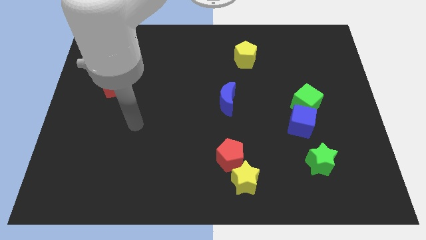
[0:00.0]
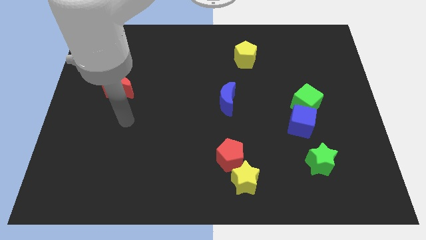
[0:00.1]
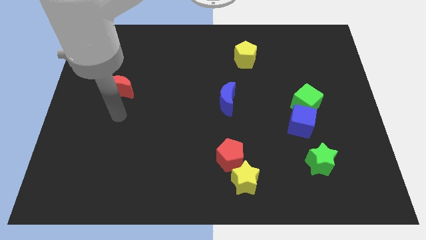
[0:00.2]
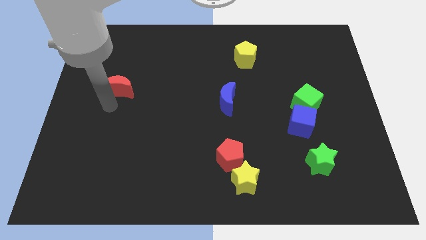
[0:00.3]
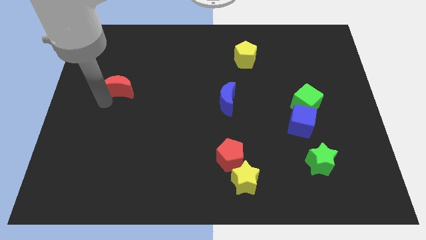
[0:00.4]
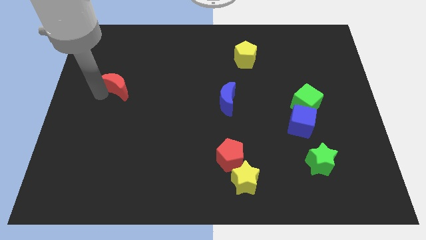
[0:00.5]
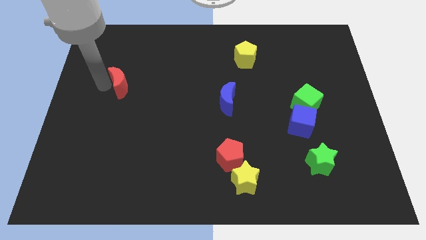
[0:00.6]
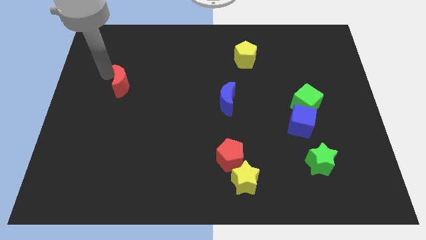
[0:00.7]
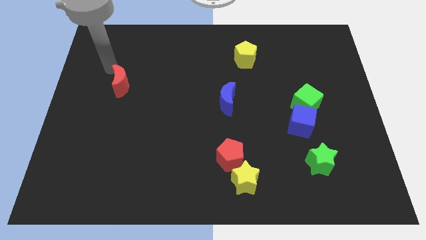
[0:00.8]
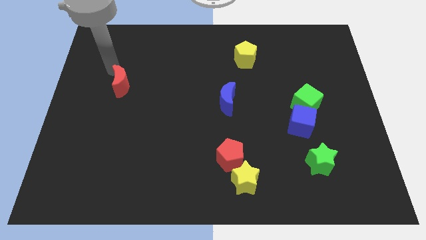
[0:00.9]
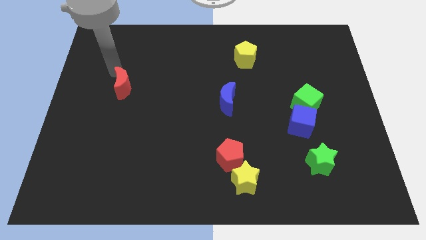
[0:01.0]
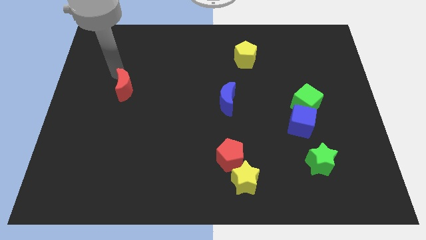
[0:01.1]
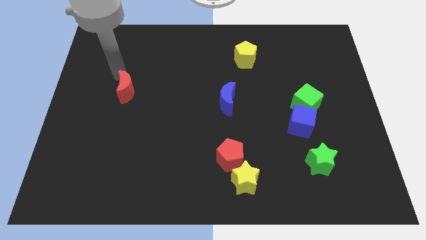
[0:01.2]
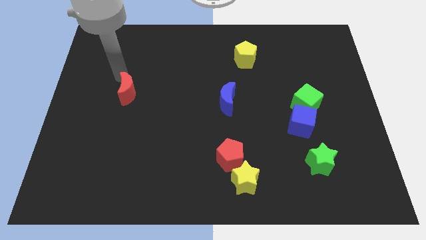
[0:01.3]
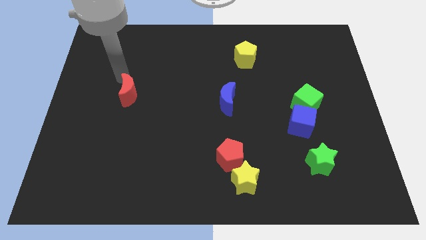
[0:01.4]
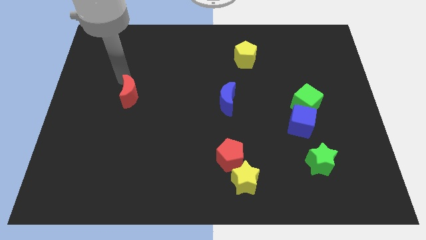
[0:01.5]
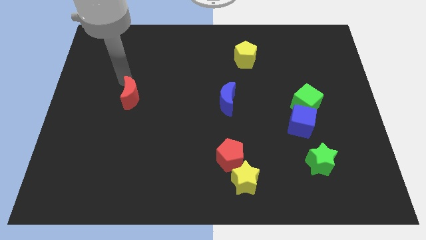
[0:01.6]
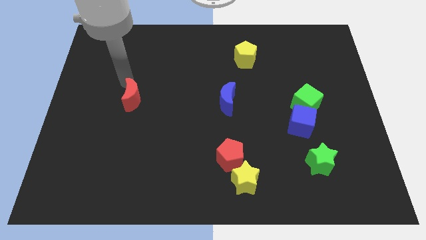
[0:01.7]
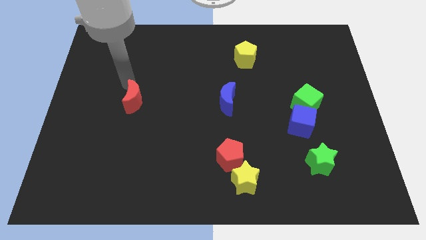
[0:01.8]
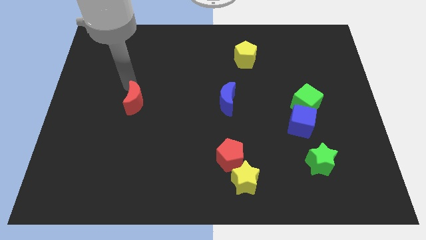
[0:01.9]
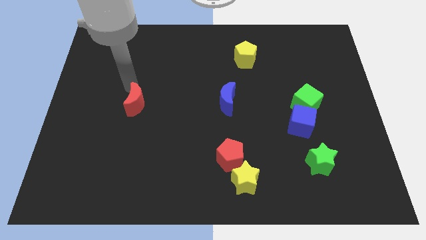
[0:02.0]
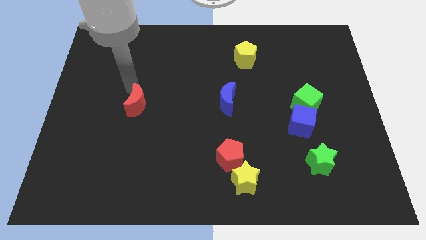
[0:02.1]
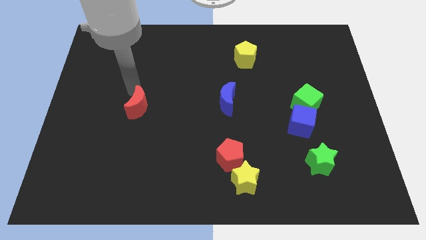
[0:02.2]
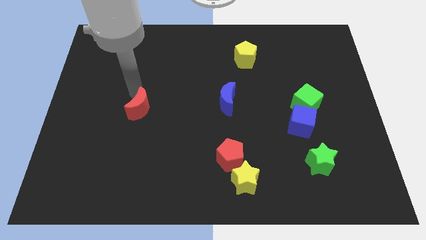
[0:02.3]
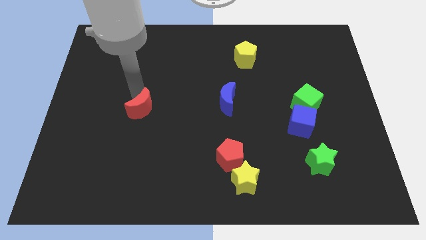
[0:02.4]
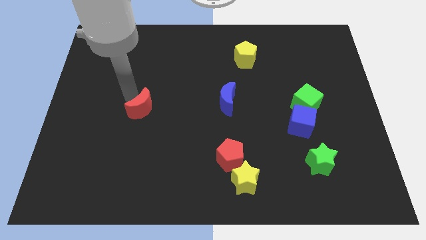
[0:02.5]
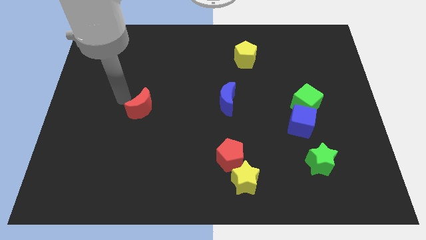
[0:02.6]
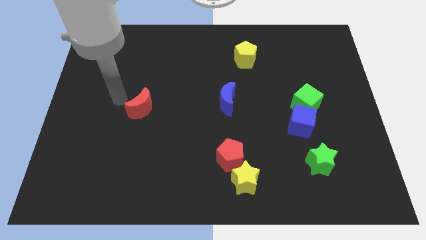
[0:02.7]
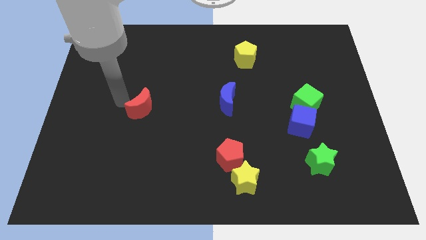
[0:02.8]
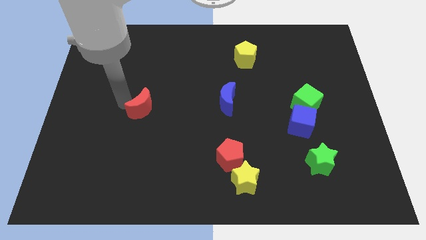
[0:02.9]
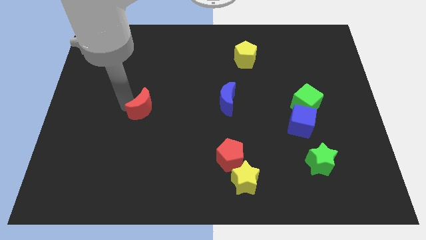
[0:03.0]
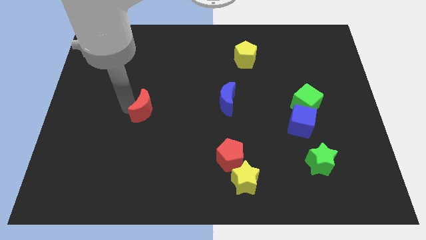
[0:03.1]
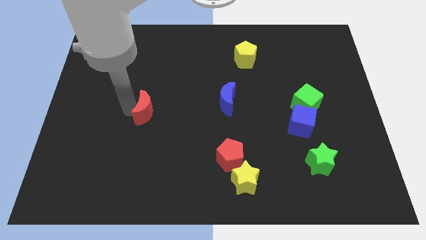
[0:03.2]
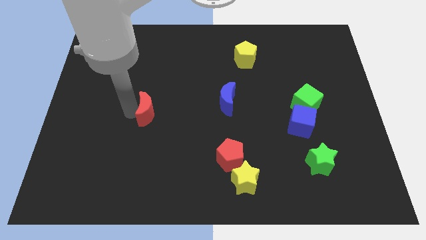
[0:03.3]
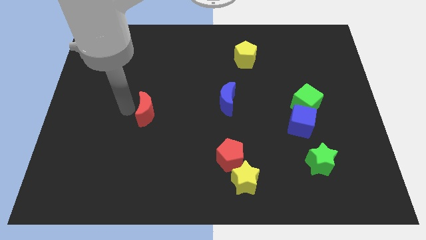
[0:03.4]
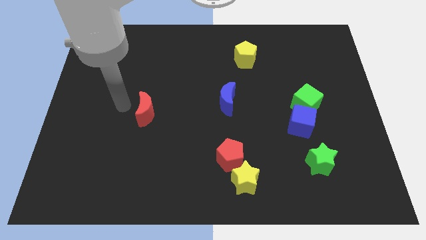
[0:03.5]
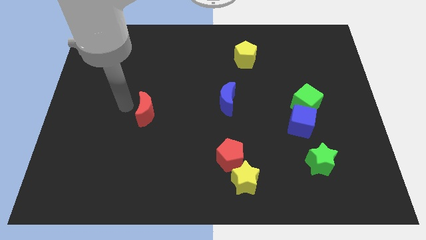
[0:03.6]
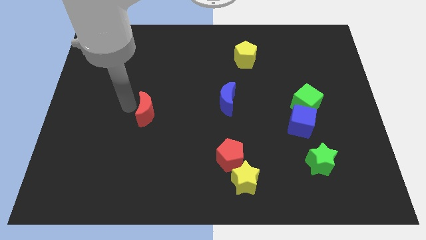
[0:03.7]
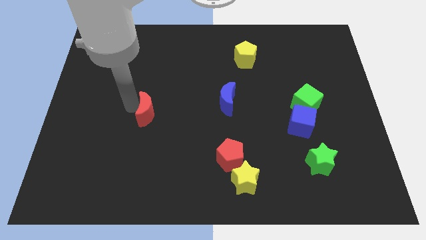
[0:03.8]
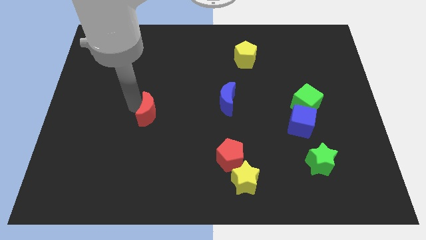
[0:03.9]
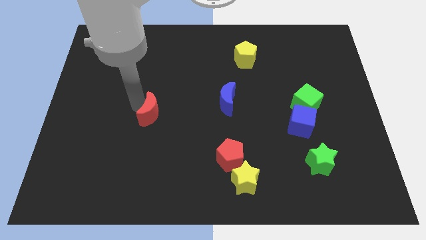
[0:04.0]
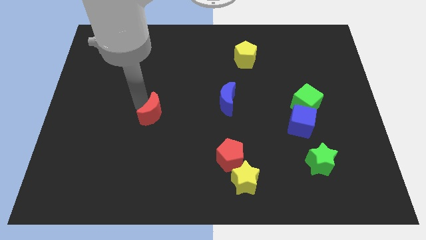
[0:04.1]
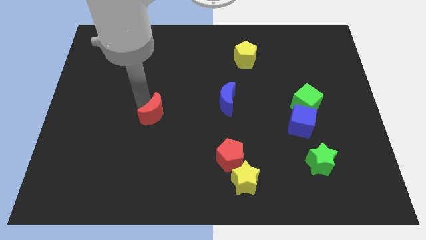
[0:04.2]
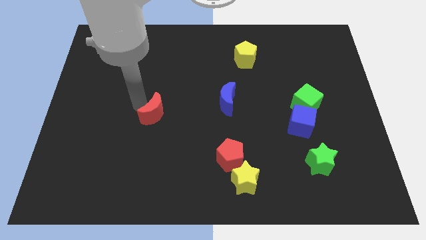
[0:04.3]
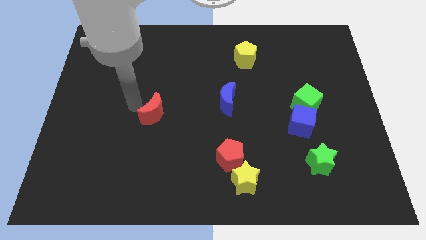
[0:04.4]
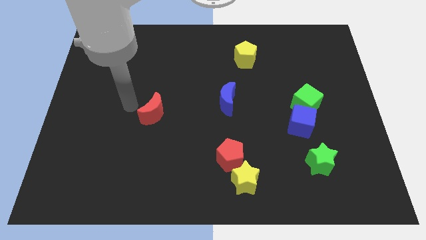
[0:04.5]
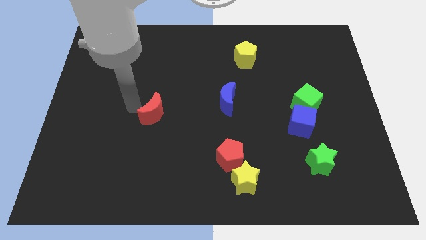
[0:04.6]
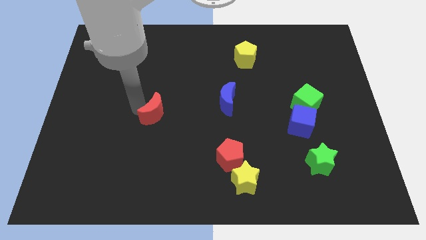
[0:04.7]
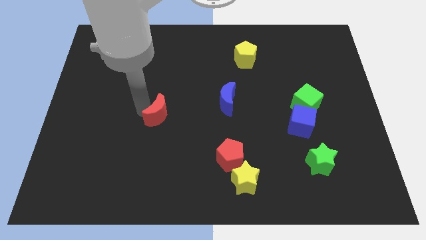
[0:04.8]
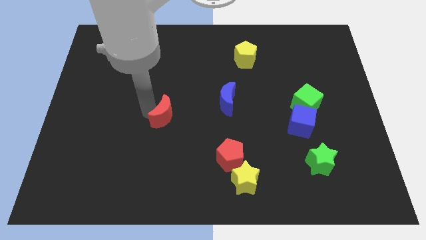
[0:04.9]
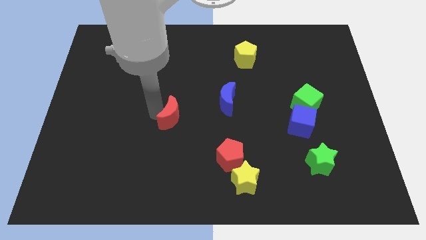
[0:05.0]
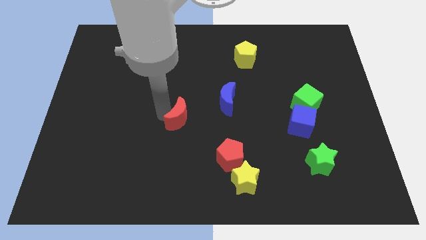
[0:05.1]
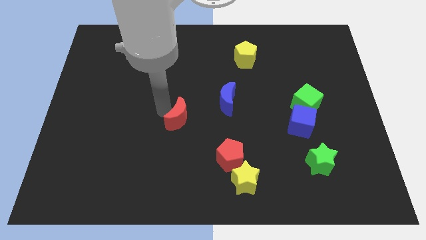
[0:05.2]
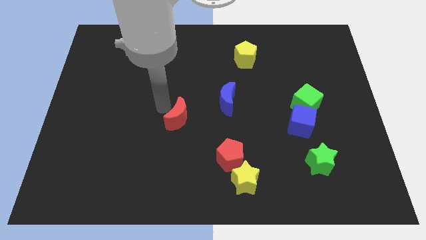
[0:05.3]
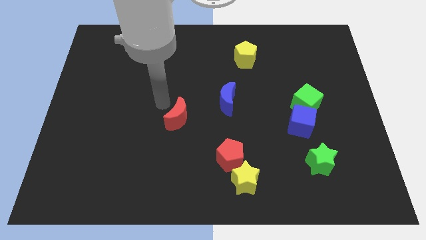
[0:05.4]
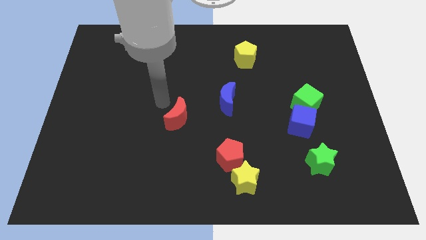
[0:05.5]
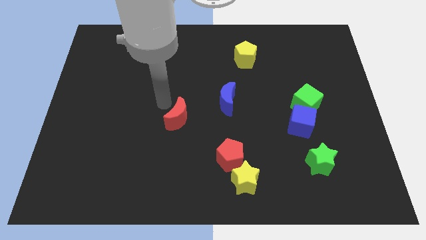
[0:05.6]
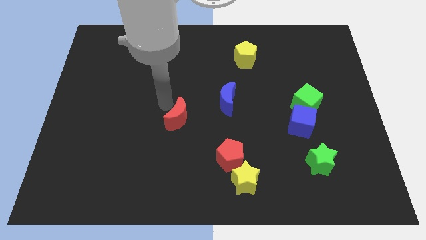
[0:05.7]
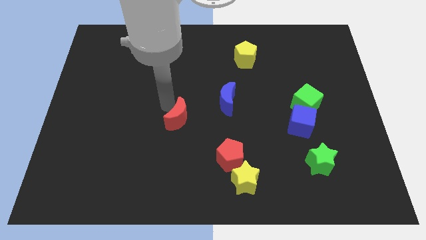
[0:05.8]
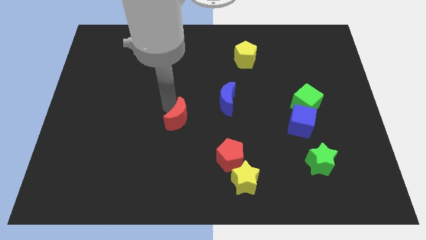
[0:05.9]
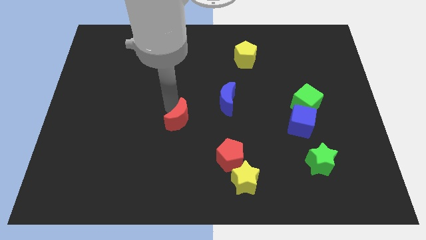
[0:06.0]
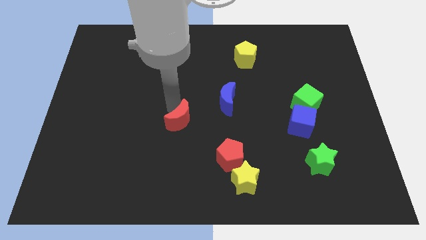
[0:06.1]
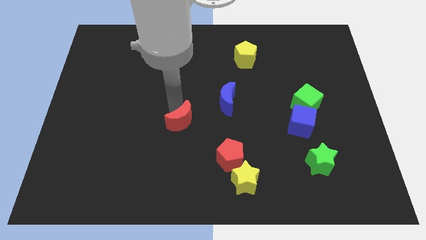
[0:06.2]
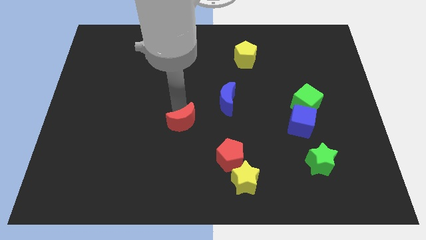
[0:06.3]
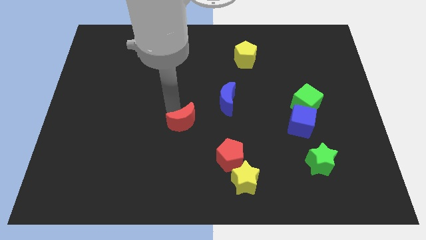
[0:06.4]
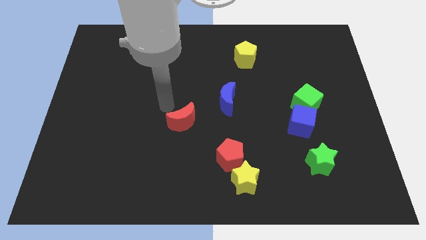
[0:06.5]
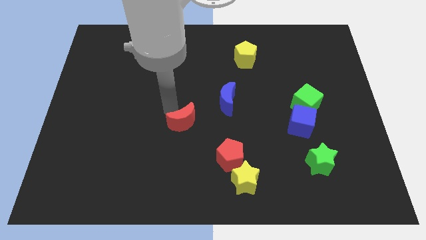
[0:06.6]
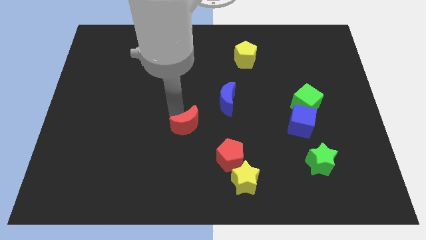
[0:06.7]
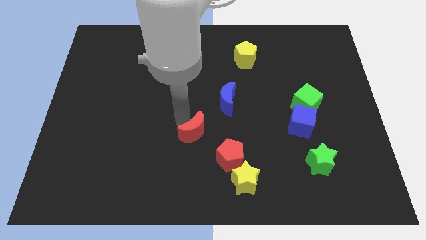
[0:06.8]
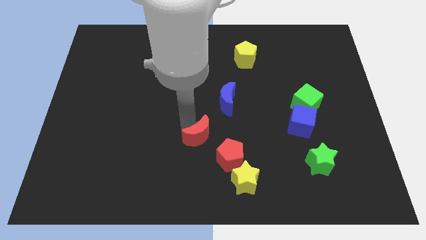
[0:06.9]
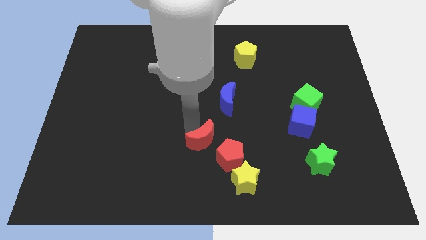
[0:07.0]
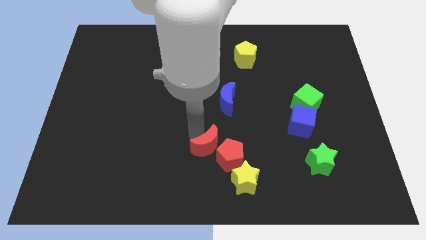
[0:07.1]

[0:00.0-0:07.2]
push the red moon to the red pentagon
